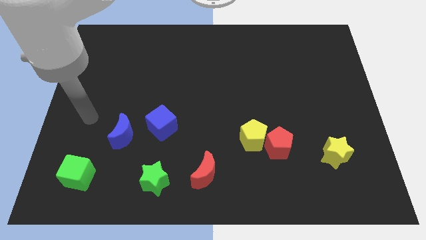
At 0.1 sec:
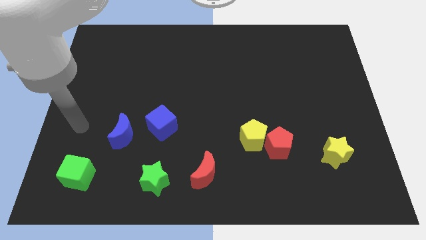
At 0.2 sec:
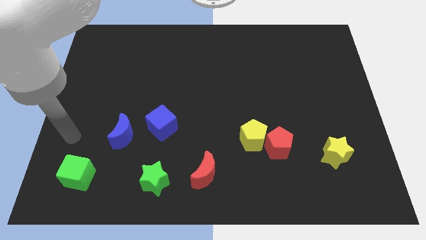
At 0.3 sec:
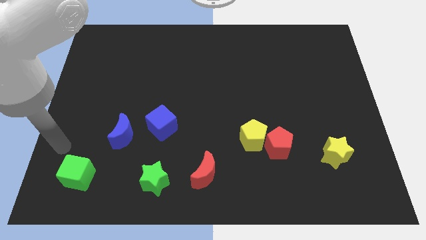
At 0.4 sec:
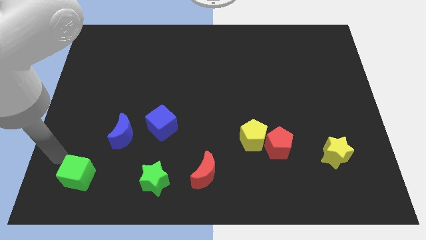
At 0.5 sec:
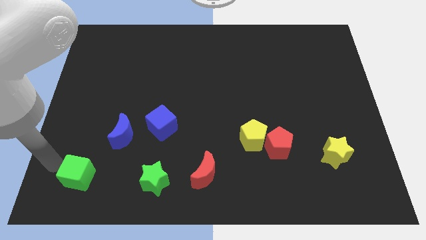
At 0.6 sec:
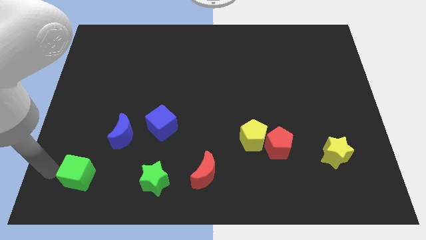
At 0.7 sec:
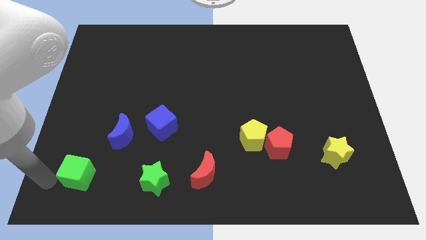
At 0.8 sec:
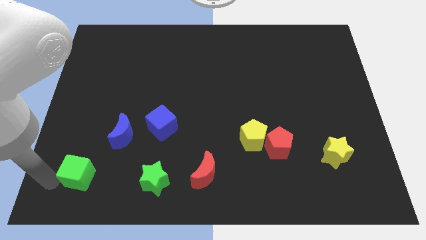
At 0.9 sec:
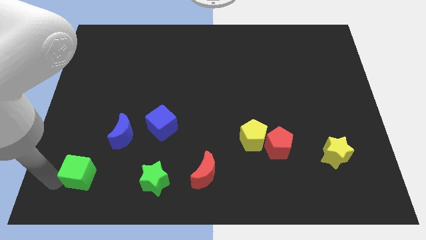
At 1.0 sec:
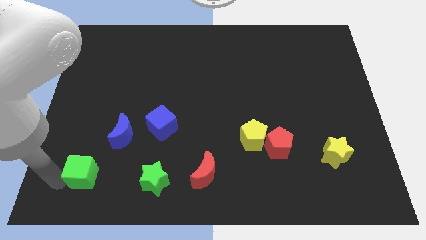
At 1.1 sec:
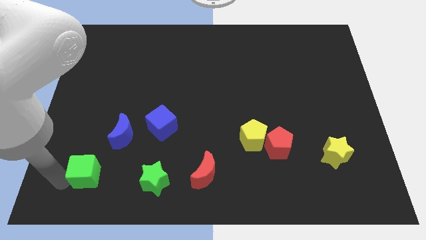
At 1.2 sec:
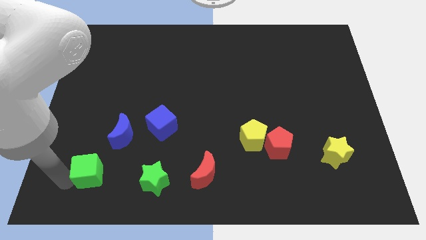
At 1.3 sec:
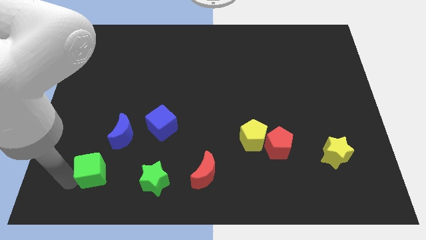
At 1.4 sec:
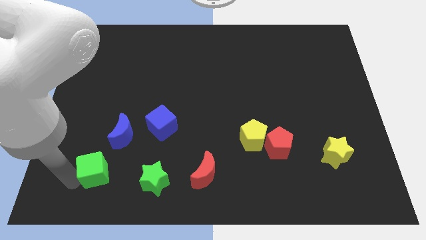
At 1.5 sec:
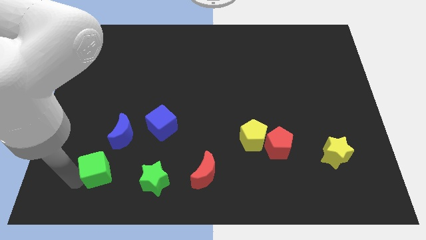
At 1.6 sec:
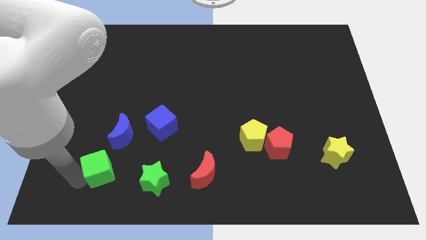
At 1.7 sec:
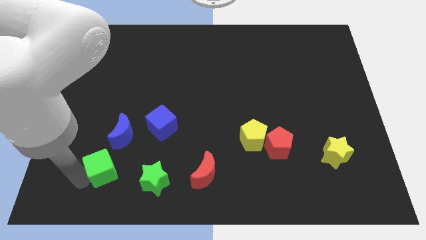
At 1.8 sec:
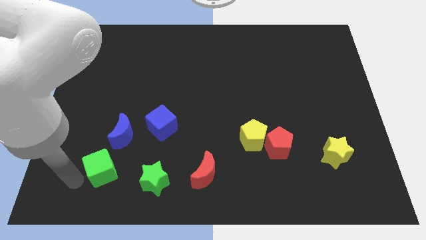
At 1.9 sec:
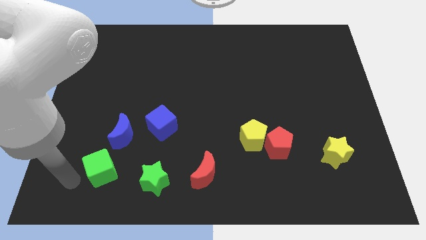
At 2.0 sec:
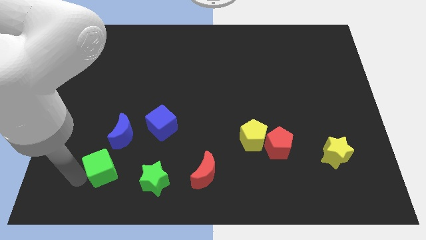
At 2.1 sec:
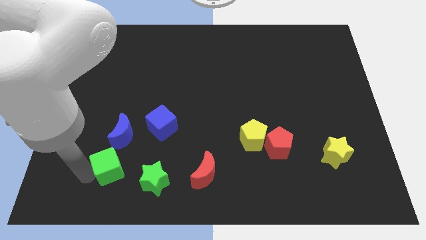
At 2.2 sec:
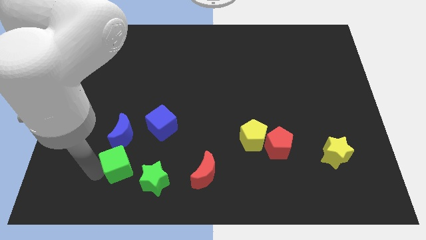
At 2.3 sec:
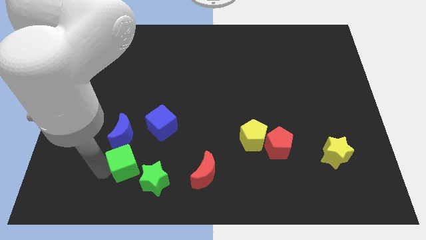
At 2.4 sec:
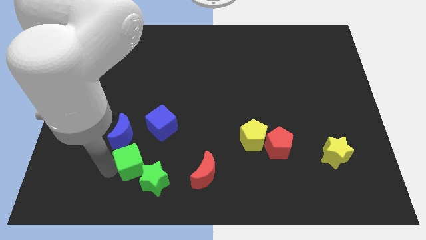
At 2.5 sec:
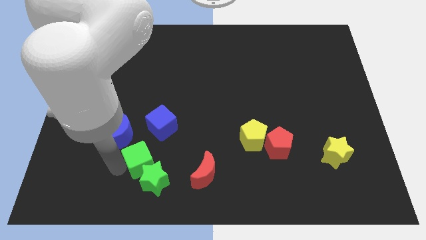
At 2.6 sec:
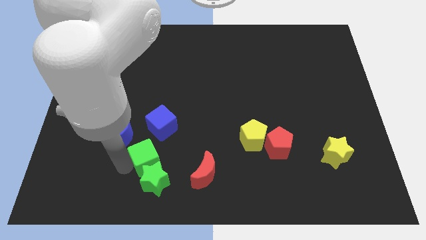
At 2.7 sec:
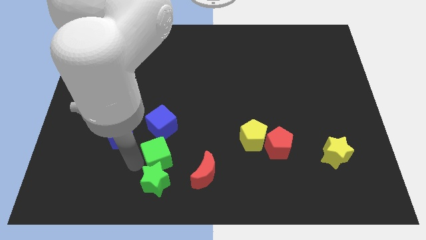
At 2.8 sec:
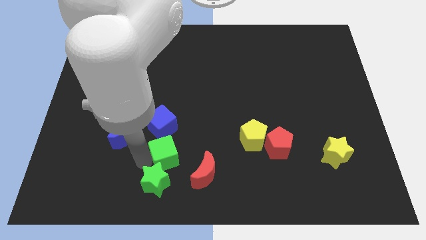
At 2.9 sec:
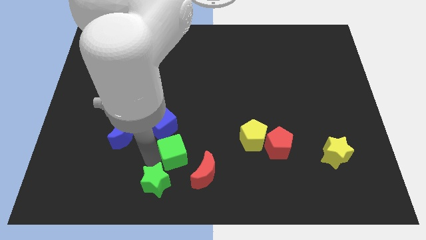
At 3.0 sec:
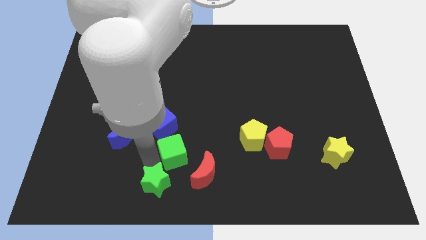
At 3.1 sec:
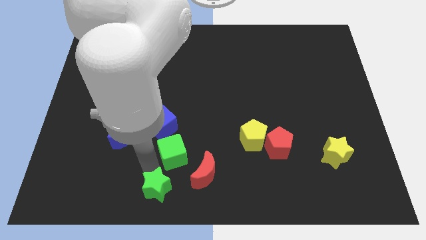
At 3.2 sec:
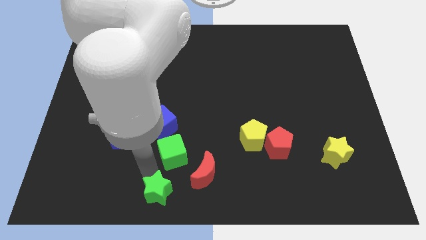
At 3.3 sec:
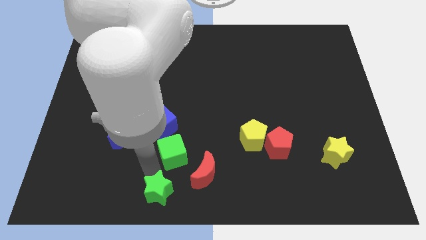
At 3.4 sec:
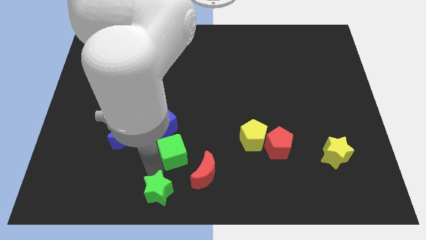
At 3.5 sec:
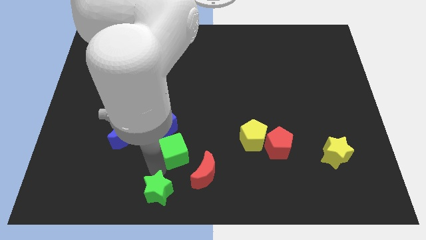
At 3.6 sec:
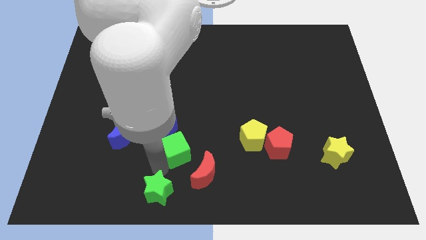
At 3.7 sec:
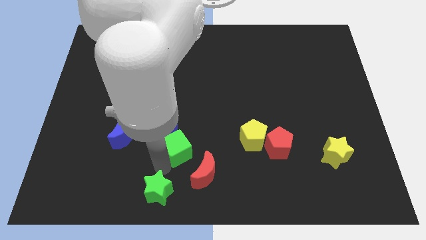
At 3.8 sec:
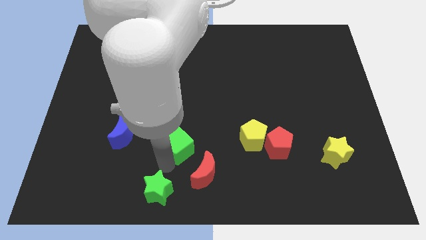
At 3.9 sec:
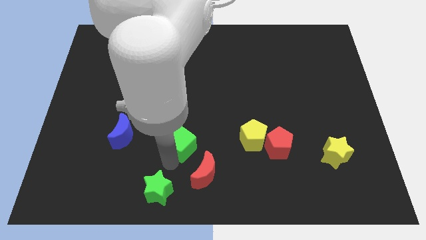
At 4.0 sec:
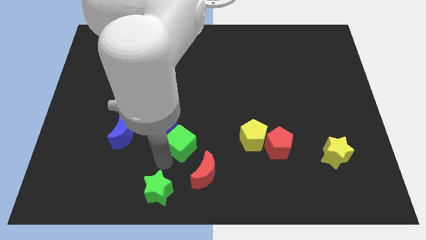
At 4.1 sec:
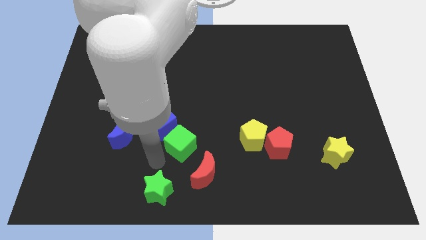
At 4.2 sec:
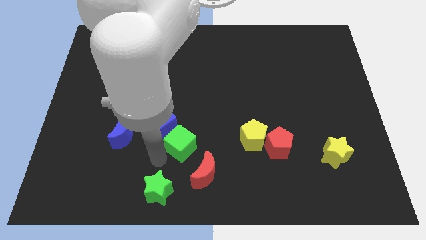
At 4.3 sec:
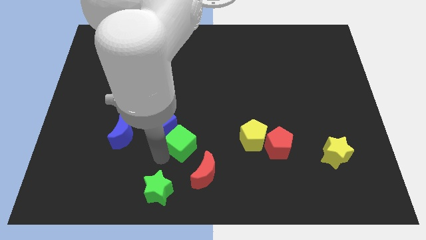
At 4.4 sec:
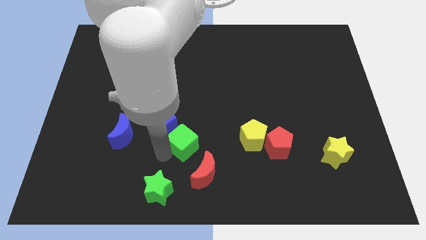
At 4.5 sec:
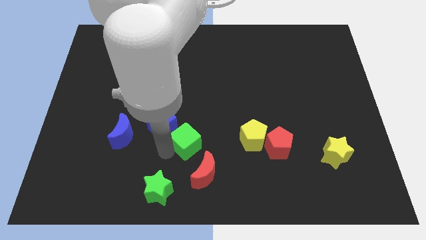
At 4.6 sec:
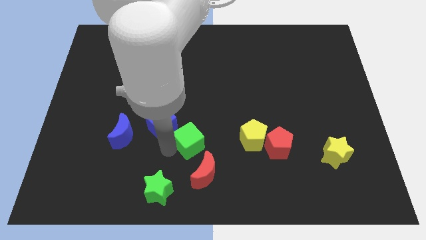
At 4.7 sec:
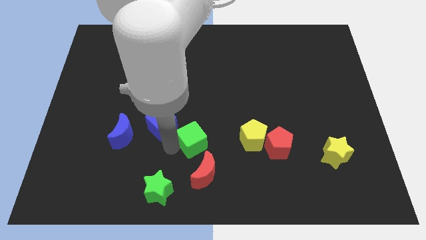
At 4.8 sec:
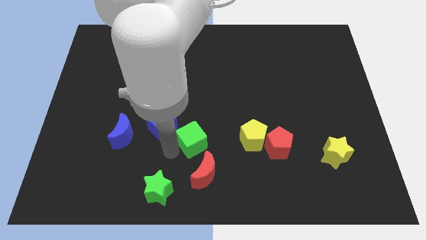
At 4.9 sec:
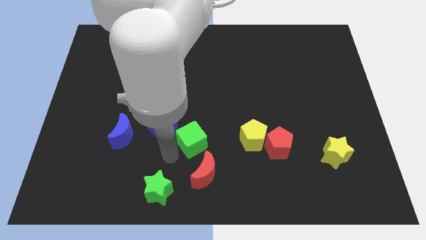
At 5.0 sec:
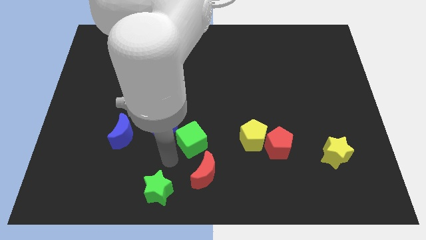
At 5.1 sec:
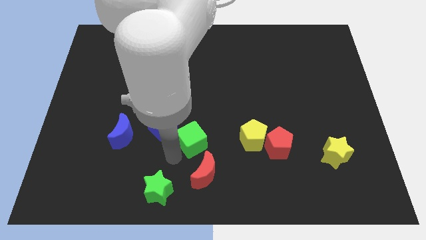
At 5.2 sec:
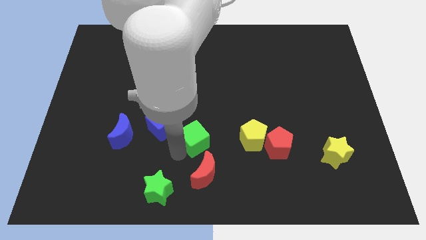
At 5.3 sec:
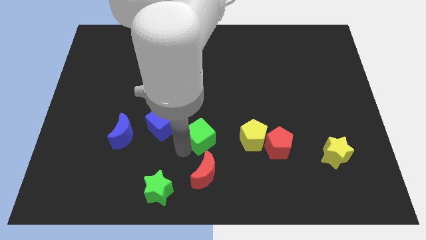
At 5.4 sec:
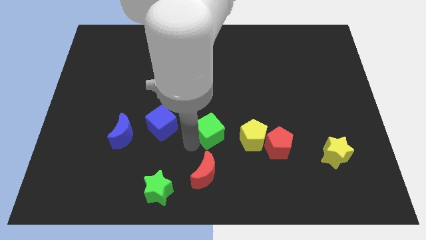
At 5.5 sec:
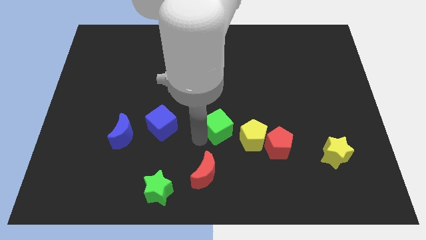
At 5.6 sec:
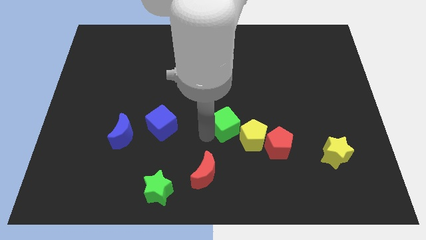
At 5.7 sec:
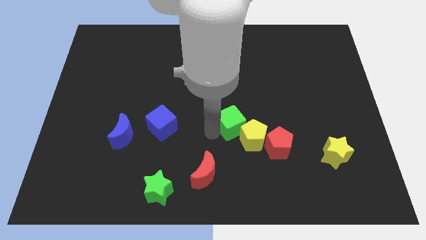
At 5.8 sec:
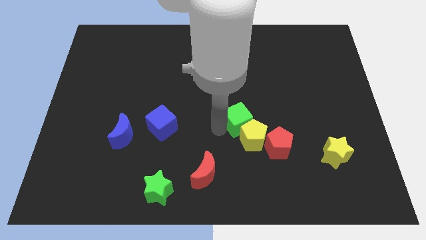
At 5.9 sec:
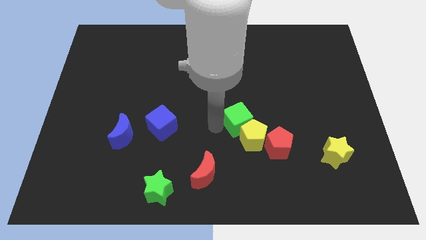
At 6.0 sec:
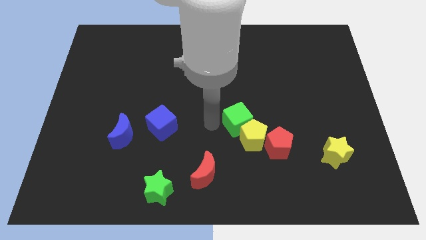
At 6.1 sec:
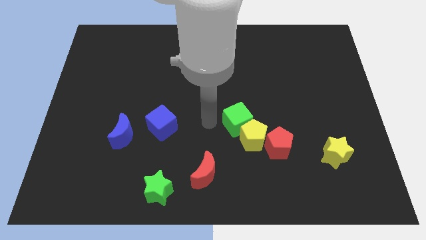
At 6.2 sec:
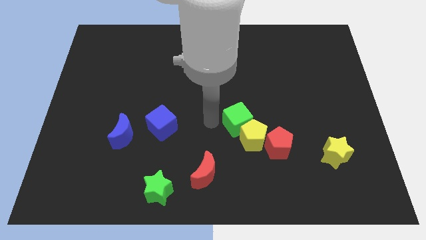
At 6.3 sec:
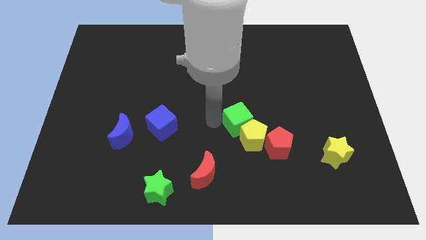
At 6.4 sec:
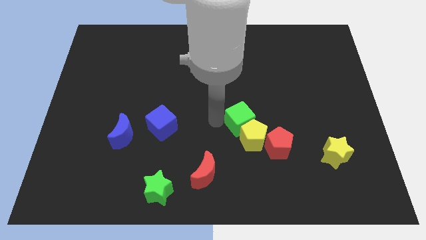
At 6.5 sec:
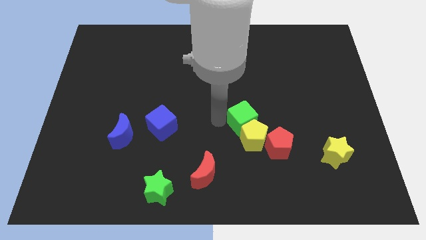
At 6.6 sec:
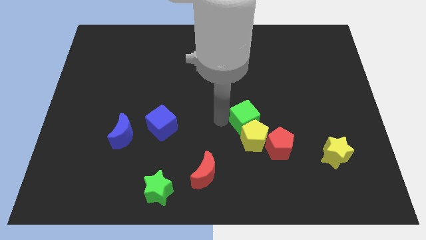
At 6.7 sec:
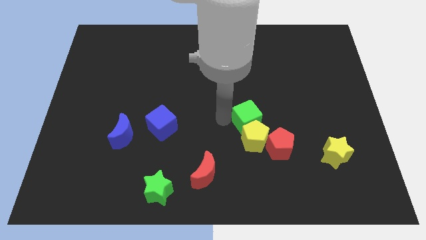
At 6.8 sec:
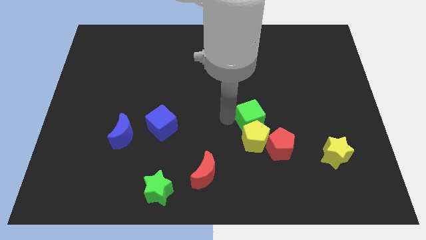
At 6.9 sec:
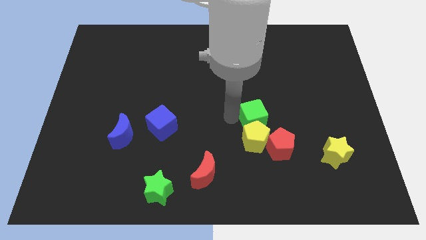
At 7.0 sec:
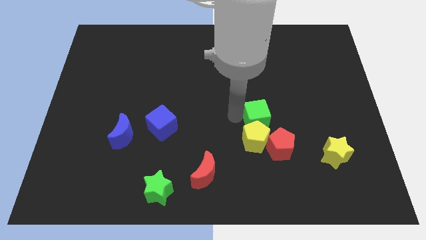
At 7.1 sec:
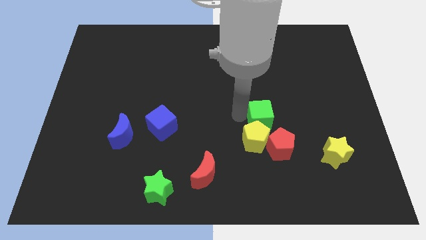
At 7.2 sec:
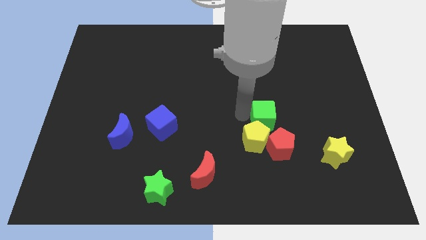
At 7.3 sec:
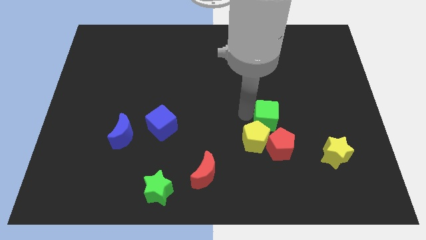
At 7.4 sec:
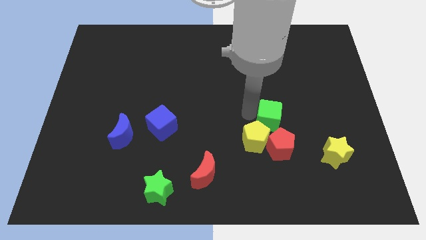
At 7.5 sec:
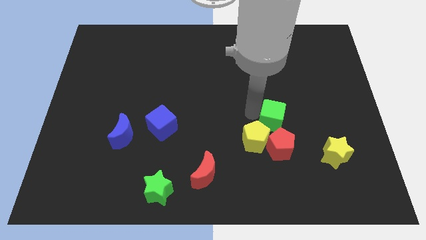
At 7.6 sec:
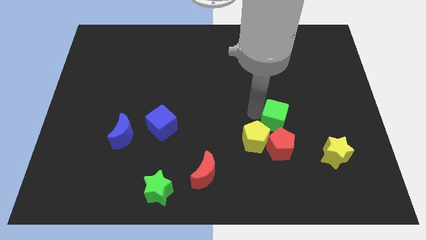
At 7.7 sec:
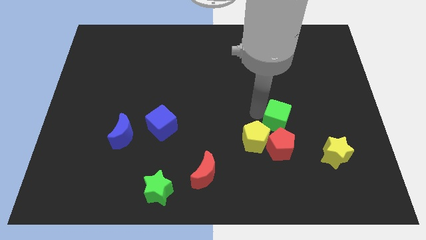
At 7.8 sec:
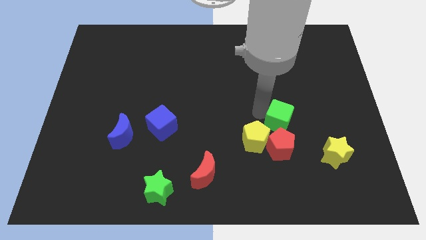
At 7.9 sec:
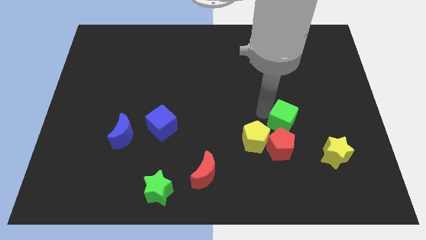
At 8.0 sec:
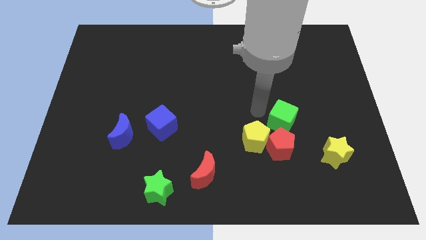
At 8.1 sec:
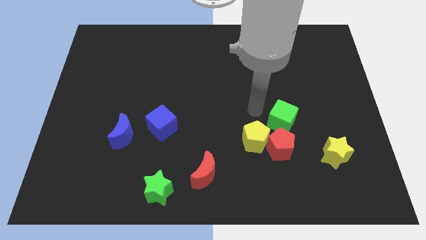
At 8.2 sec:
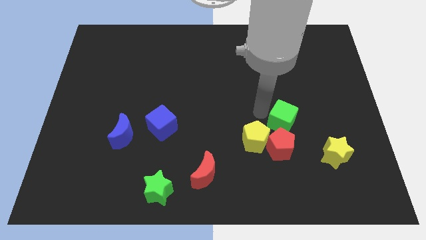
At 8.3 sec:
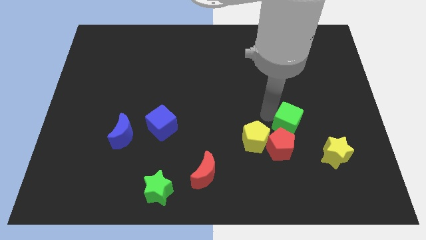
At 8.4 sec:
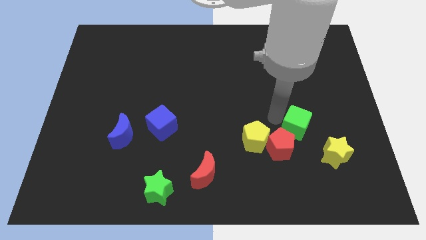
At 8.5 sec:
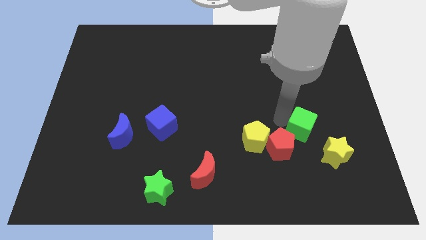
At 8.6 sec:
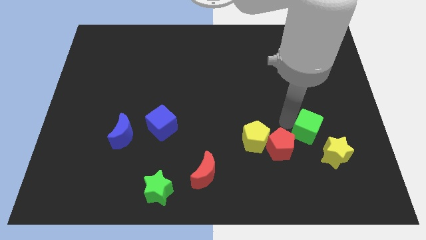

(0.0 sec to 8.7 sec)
put the green cube right of the red pentagon
